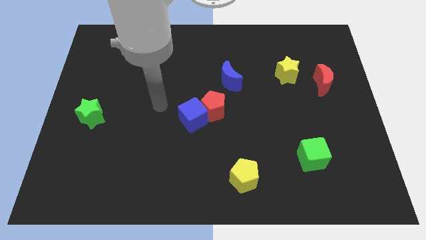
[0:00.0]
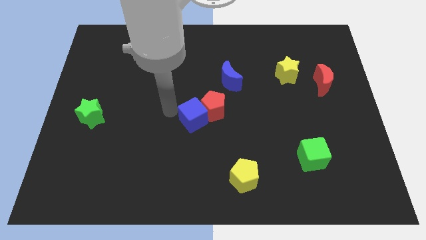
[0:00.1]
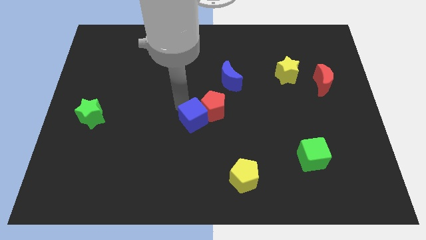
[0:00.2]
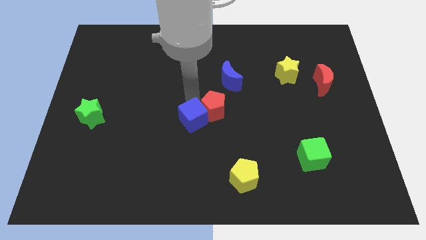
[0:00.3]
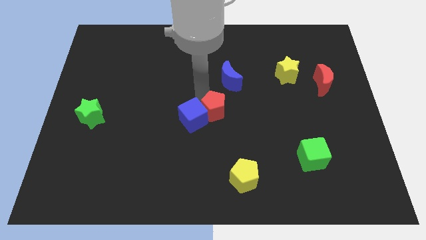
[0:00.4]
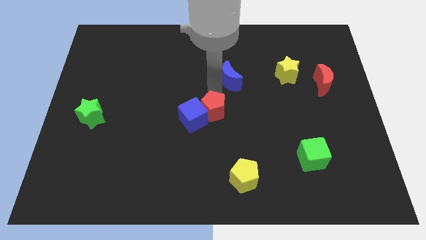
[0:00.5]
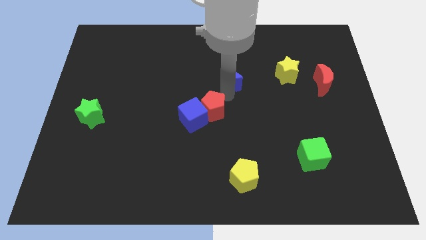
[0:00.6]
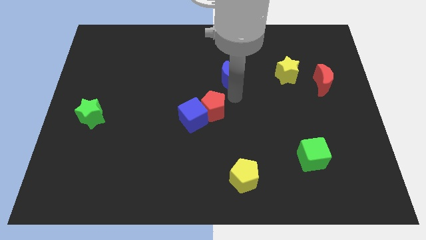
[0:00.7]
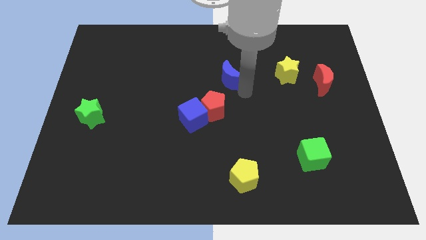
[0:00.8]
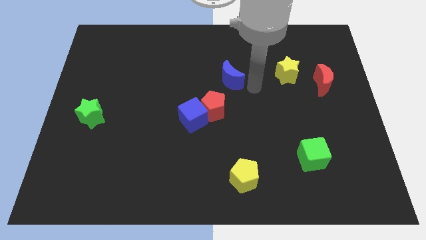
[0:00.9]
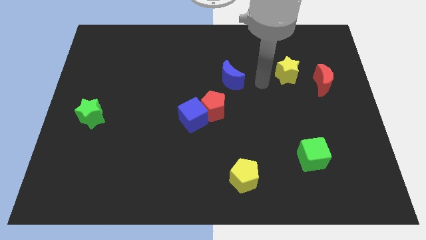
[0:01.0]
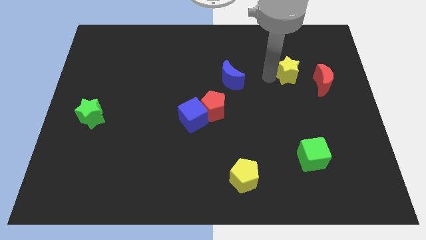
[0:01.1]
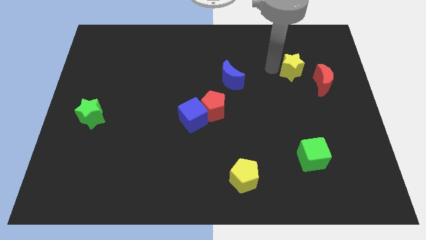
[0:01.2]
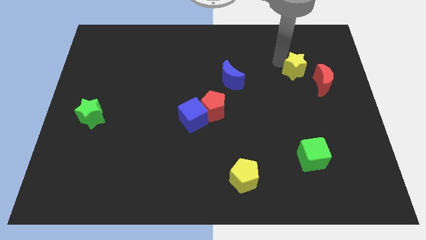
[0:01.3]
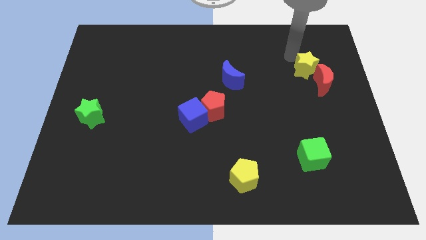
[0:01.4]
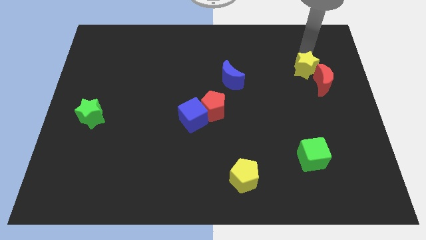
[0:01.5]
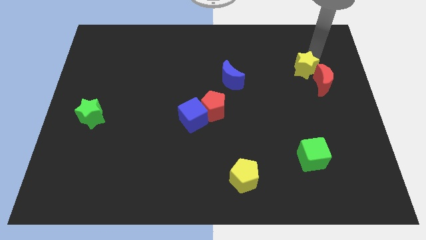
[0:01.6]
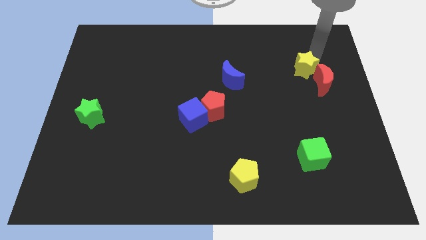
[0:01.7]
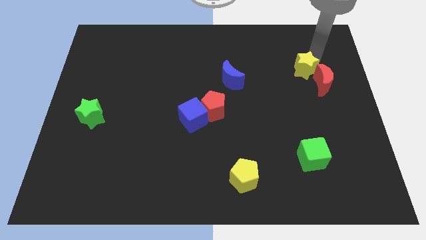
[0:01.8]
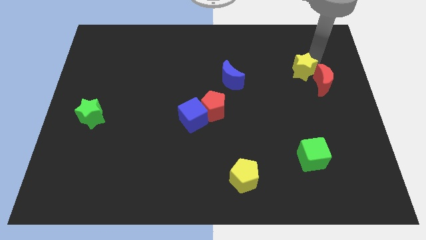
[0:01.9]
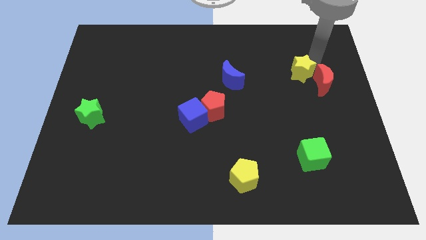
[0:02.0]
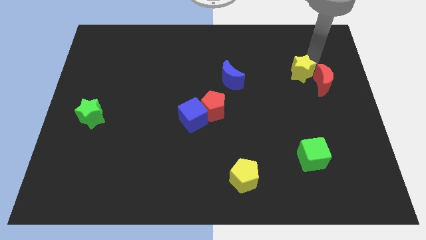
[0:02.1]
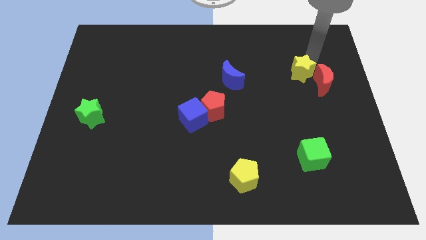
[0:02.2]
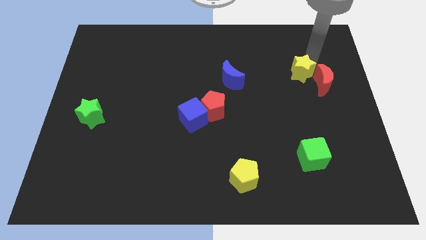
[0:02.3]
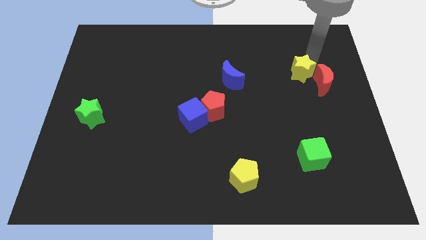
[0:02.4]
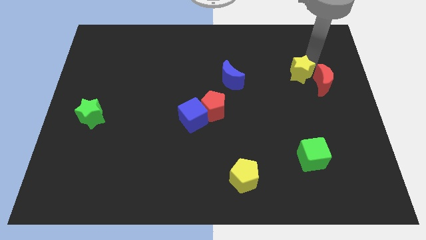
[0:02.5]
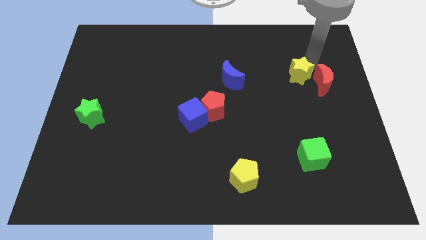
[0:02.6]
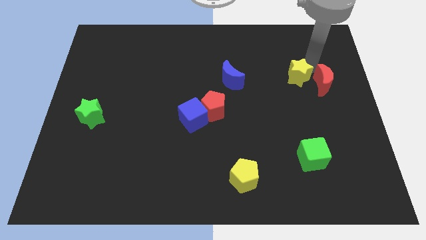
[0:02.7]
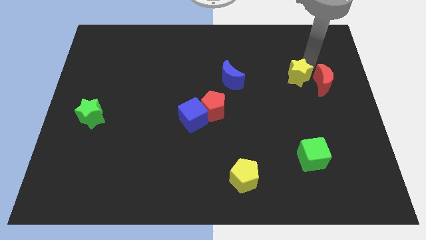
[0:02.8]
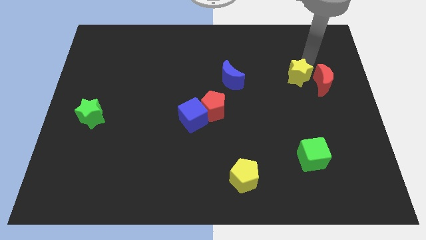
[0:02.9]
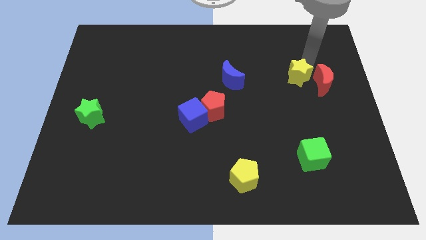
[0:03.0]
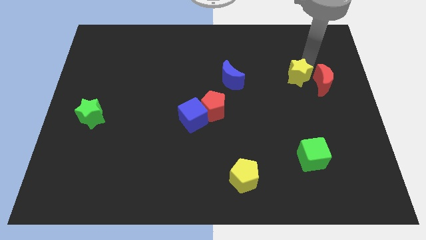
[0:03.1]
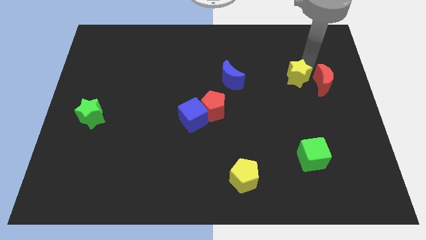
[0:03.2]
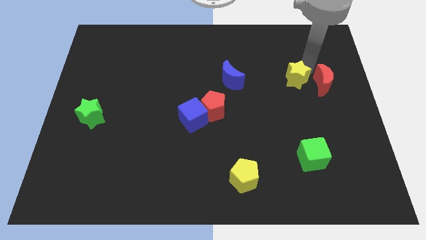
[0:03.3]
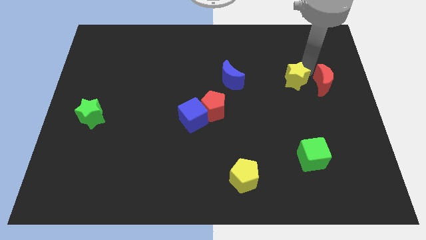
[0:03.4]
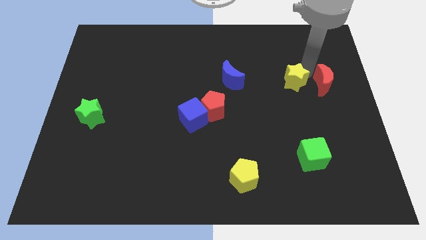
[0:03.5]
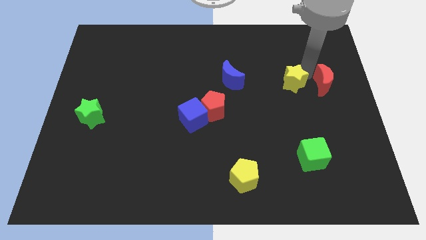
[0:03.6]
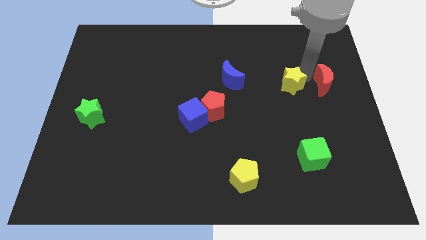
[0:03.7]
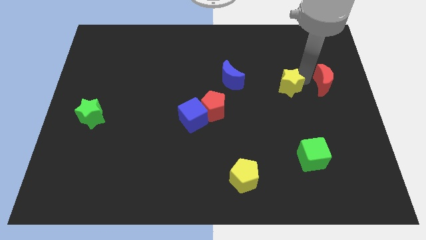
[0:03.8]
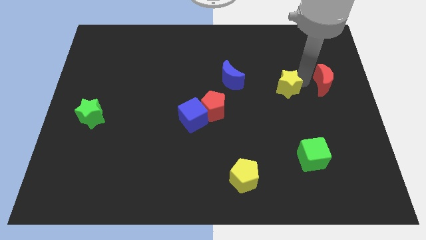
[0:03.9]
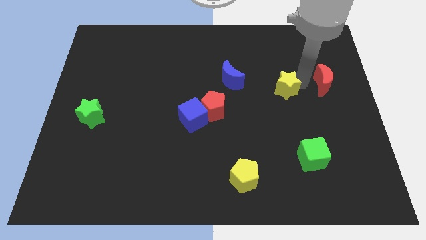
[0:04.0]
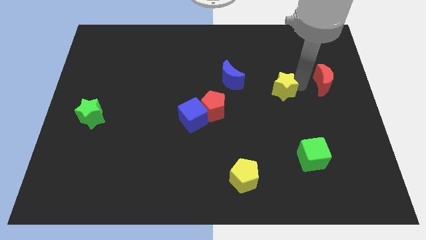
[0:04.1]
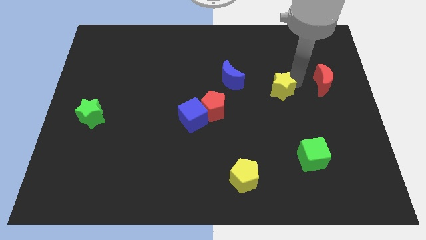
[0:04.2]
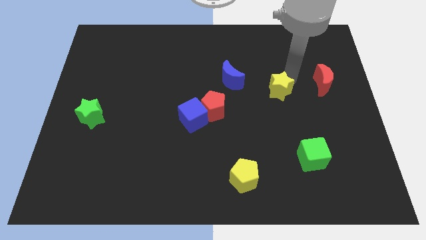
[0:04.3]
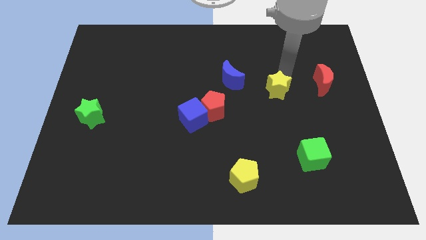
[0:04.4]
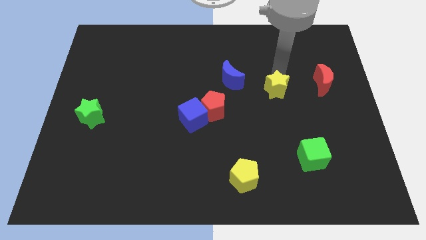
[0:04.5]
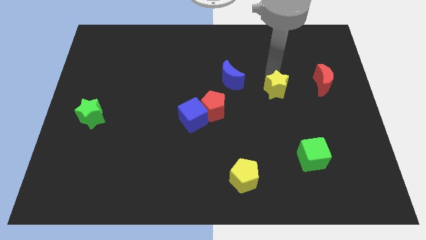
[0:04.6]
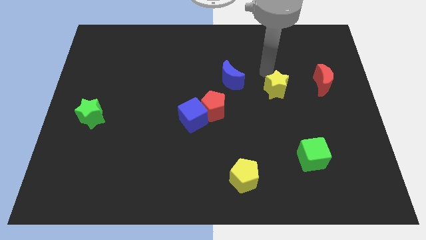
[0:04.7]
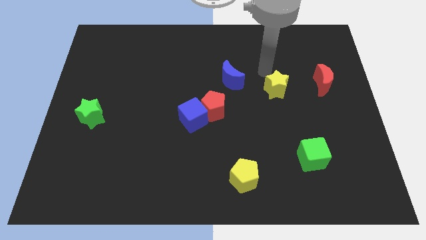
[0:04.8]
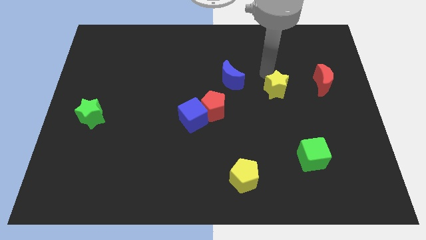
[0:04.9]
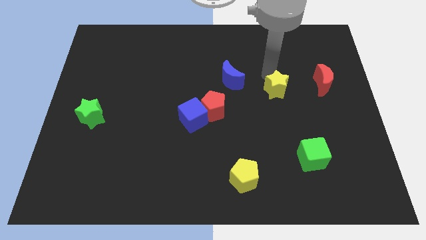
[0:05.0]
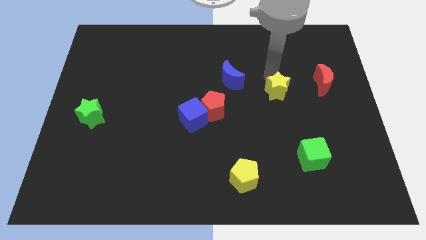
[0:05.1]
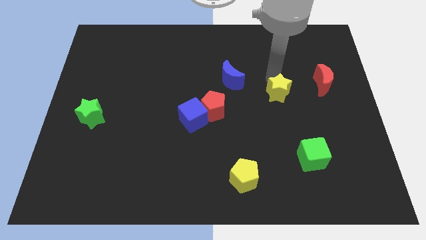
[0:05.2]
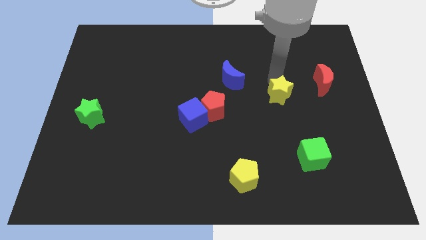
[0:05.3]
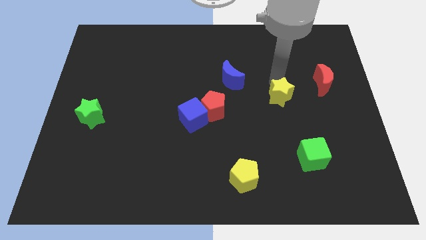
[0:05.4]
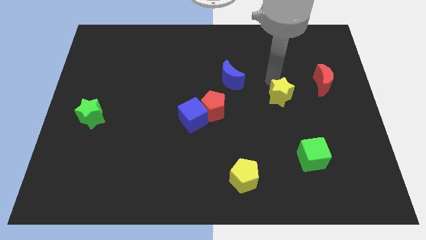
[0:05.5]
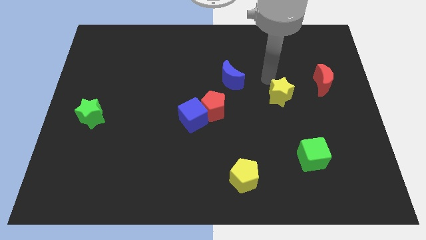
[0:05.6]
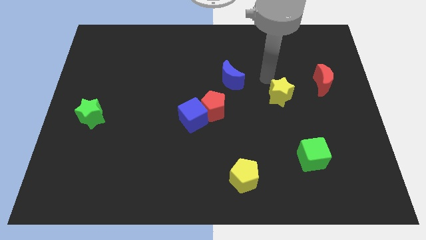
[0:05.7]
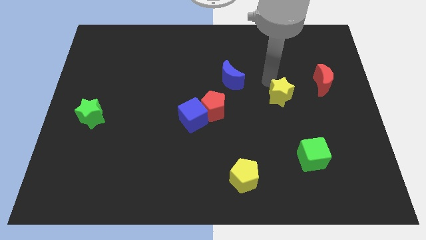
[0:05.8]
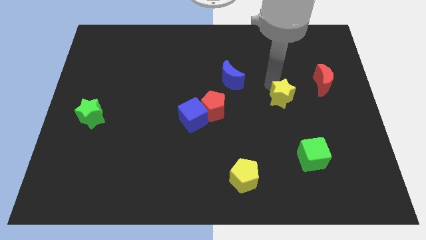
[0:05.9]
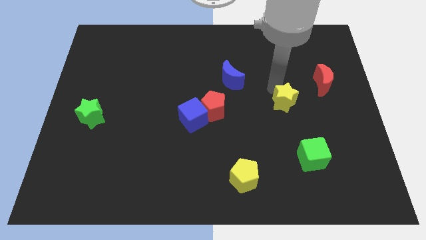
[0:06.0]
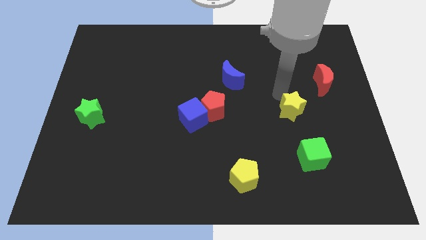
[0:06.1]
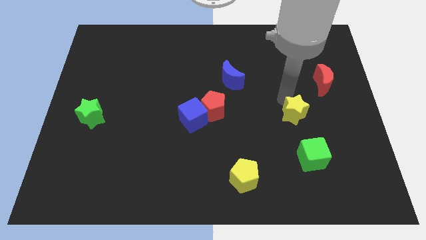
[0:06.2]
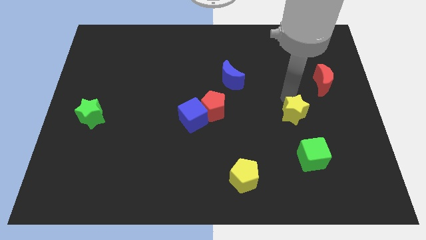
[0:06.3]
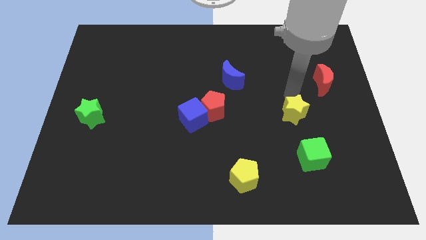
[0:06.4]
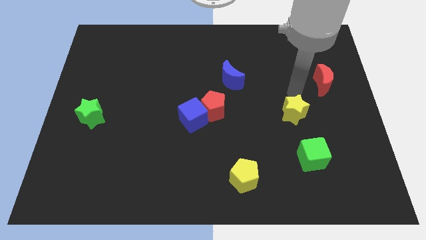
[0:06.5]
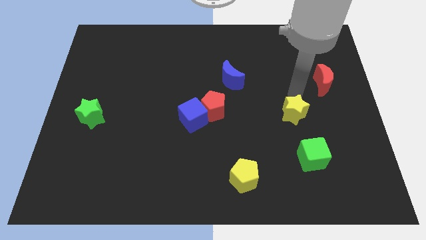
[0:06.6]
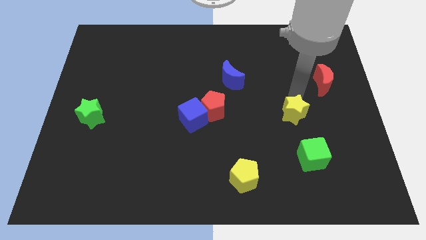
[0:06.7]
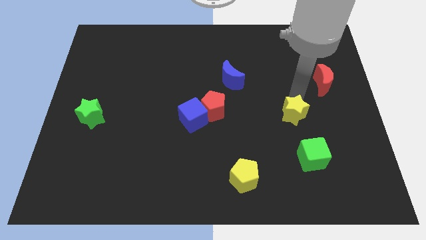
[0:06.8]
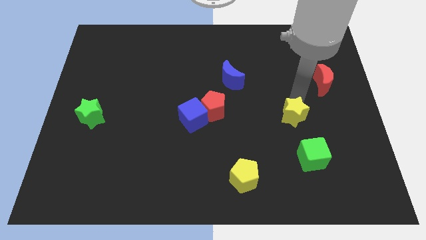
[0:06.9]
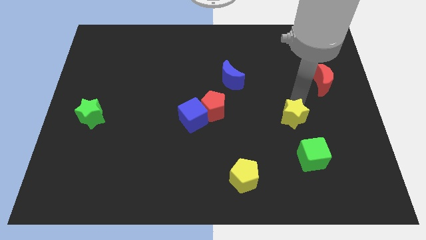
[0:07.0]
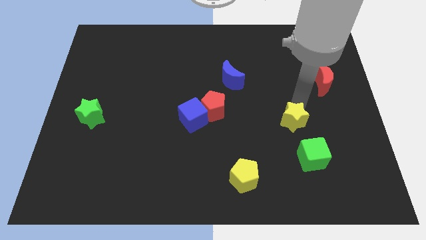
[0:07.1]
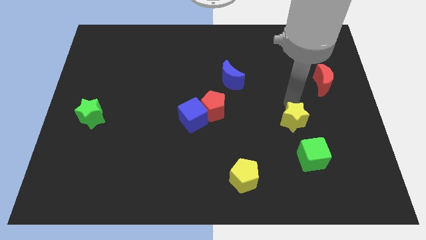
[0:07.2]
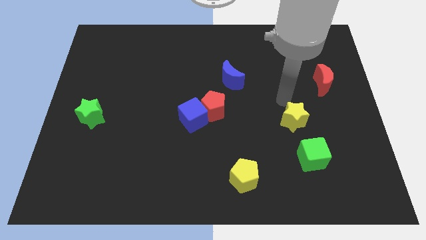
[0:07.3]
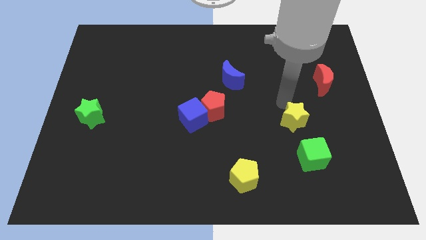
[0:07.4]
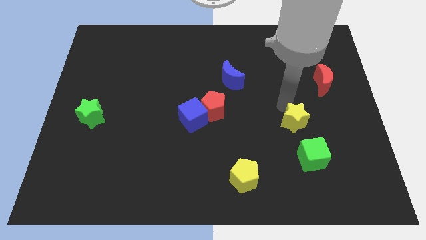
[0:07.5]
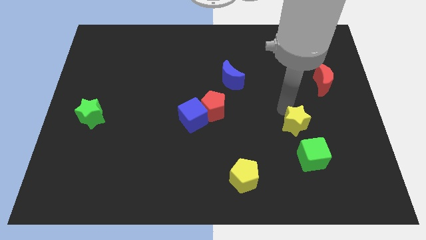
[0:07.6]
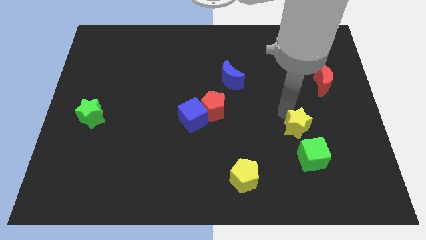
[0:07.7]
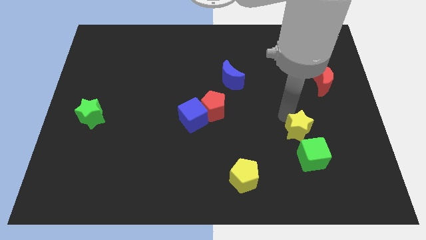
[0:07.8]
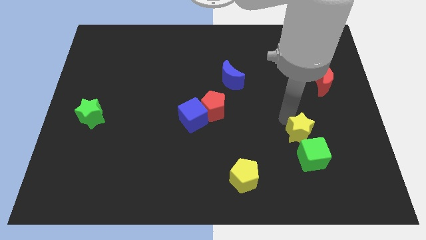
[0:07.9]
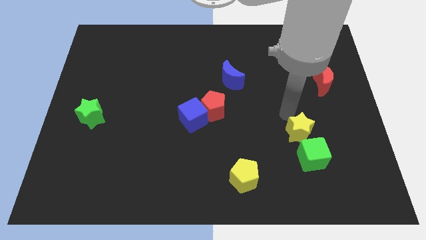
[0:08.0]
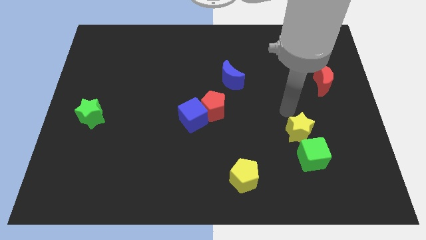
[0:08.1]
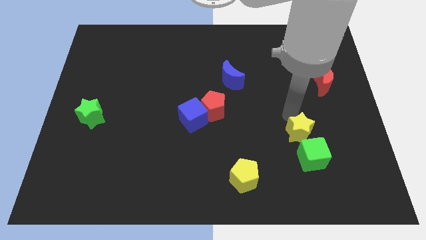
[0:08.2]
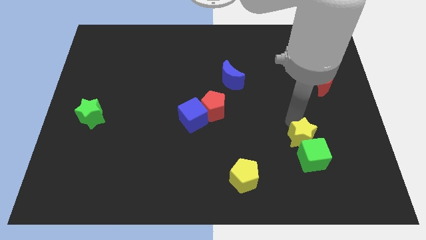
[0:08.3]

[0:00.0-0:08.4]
move the yellow star next to the green cube
